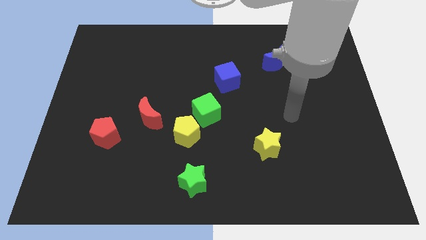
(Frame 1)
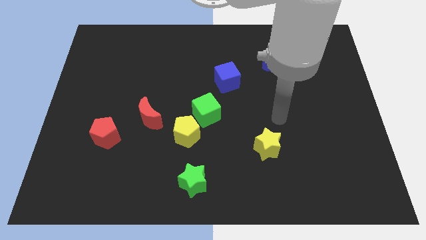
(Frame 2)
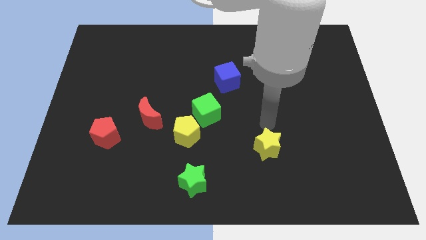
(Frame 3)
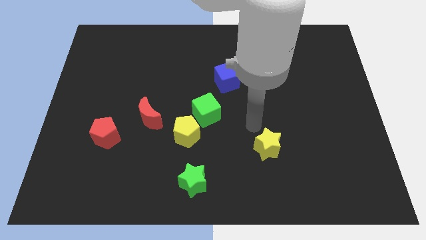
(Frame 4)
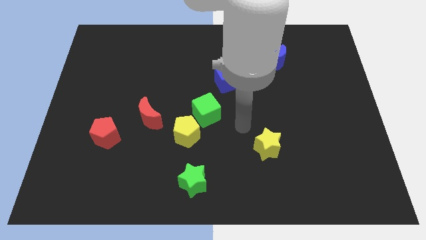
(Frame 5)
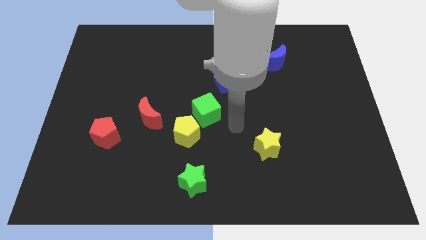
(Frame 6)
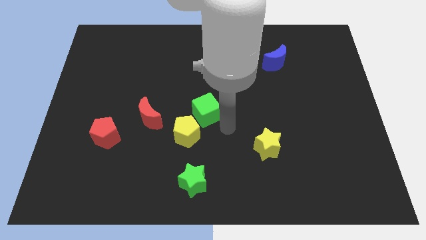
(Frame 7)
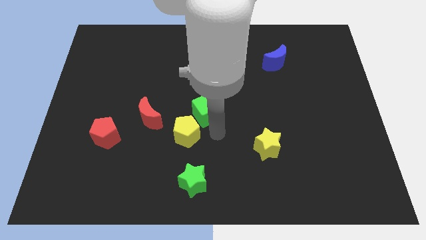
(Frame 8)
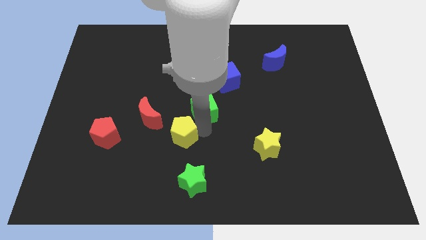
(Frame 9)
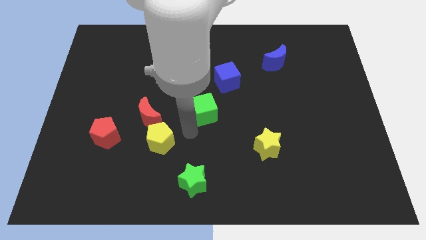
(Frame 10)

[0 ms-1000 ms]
pull the green cube apart from the yellow pentagon

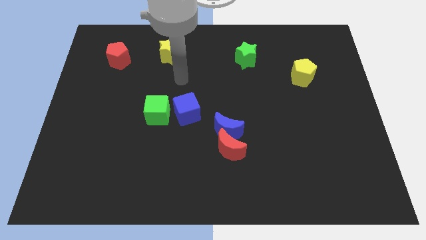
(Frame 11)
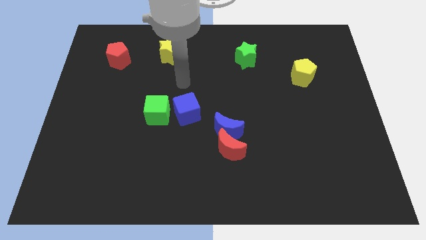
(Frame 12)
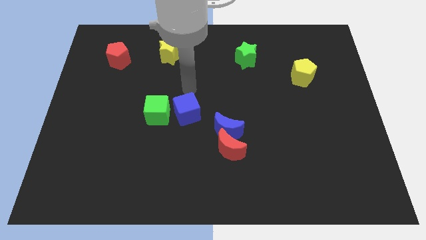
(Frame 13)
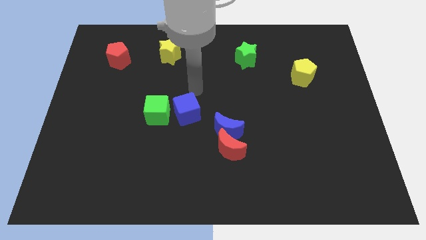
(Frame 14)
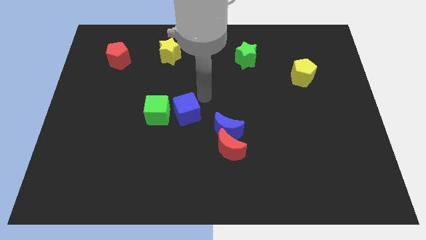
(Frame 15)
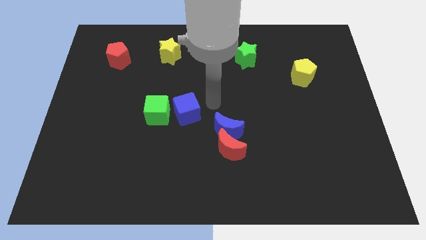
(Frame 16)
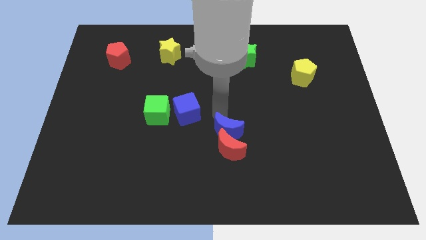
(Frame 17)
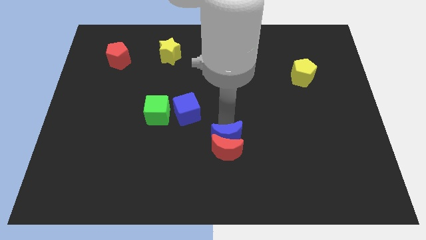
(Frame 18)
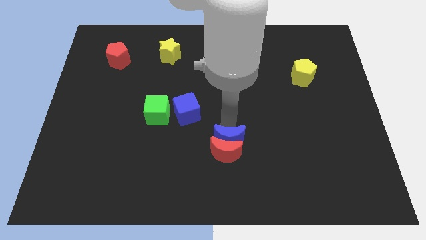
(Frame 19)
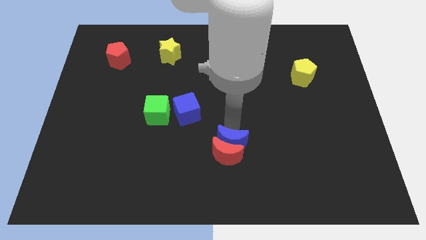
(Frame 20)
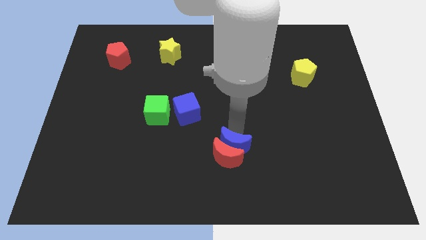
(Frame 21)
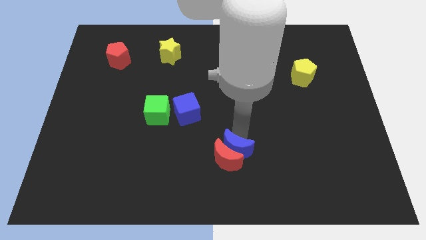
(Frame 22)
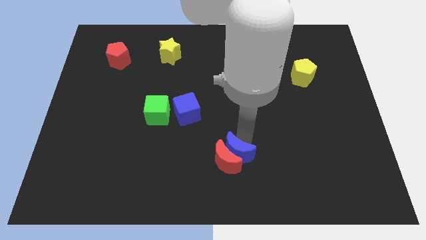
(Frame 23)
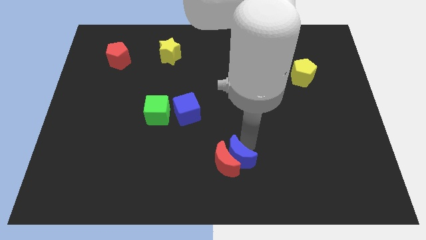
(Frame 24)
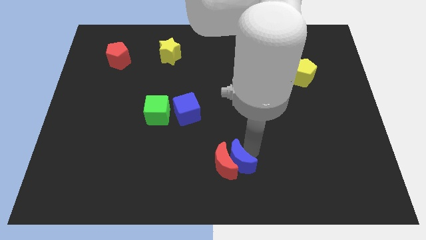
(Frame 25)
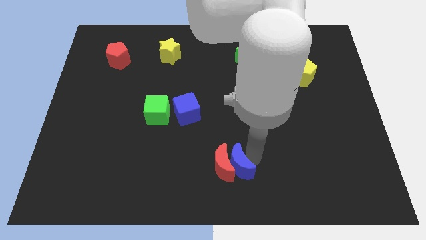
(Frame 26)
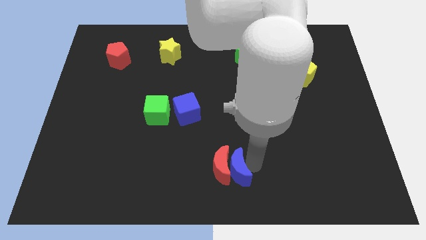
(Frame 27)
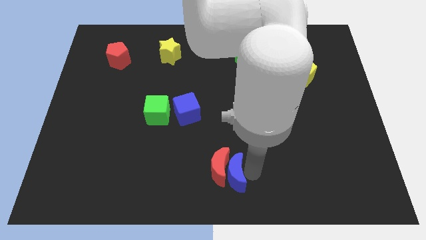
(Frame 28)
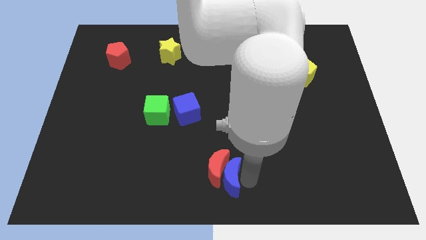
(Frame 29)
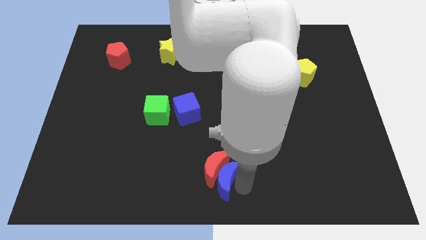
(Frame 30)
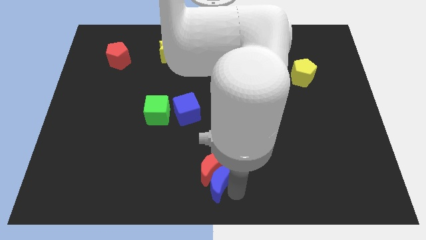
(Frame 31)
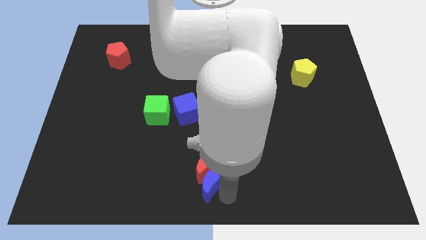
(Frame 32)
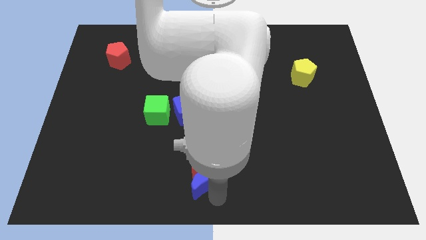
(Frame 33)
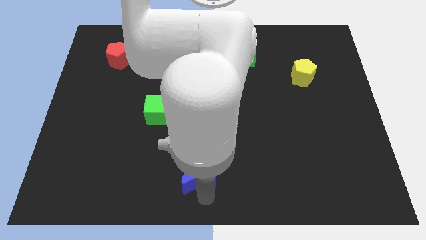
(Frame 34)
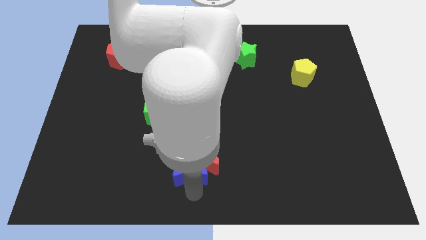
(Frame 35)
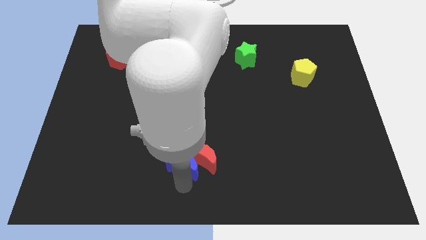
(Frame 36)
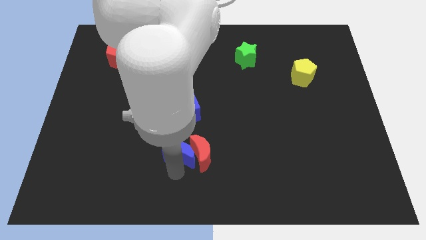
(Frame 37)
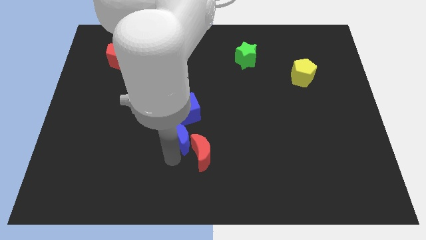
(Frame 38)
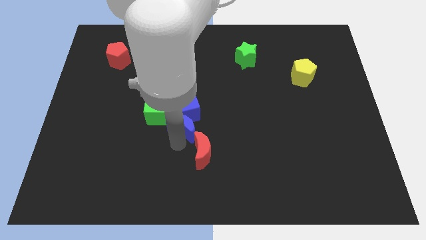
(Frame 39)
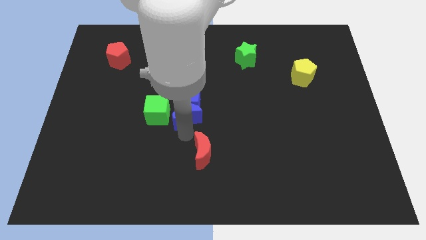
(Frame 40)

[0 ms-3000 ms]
pull the red moon apart from the blue moon

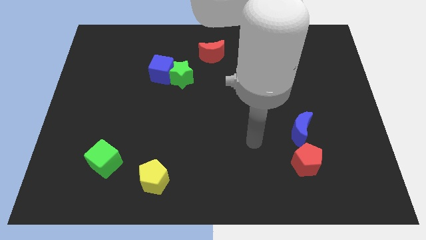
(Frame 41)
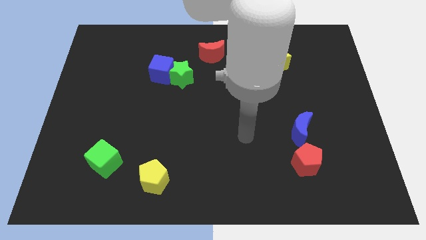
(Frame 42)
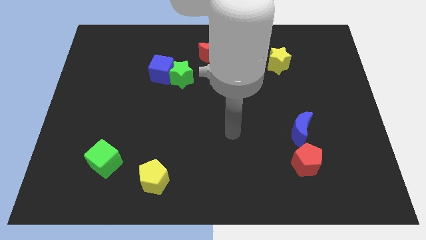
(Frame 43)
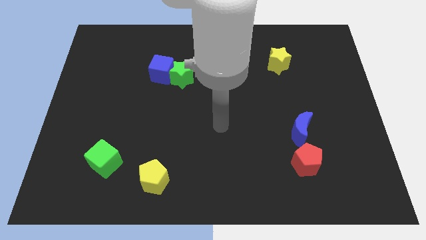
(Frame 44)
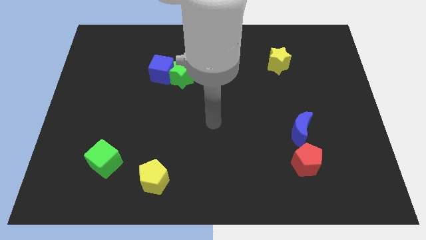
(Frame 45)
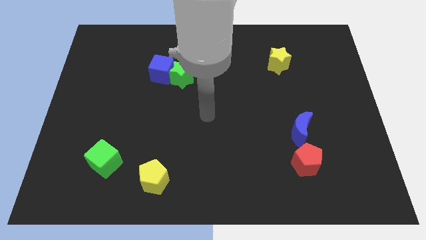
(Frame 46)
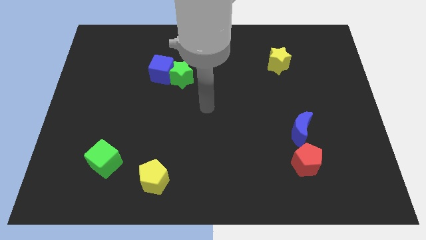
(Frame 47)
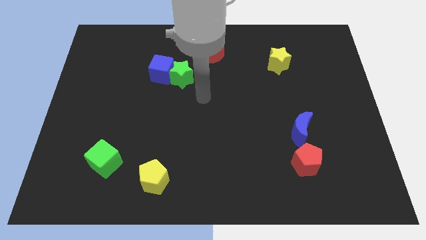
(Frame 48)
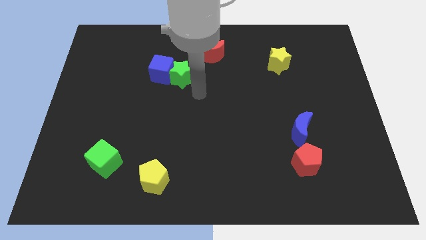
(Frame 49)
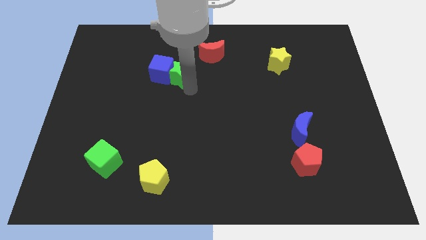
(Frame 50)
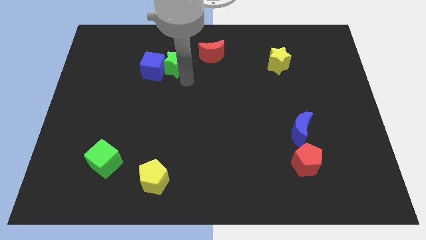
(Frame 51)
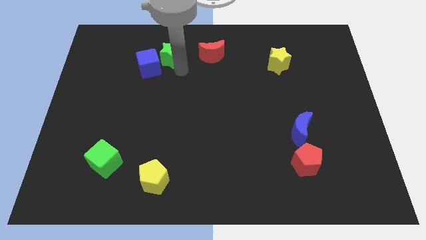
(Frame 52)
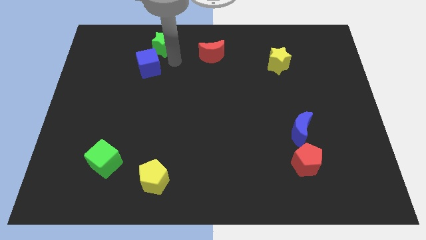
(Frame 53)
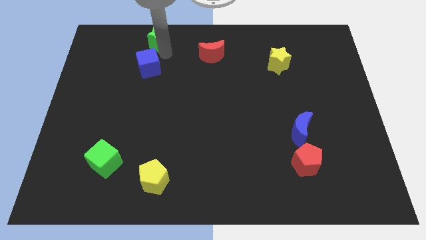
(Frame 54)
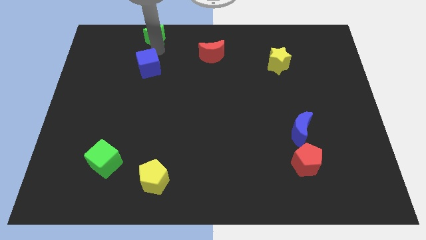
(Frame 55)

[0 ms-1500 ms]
separate the blue cube from the green star

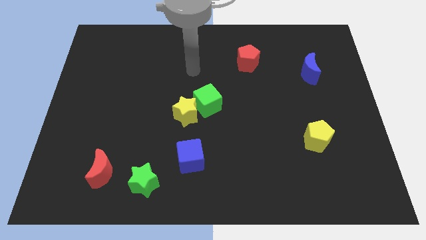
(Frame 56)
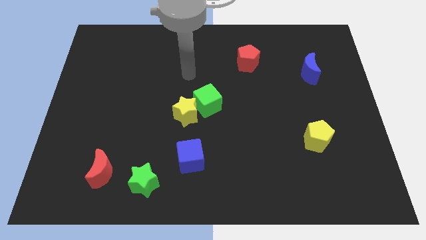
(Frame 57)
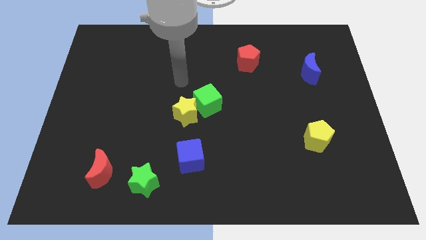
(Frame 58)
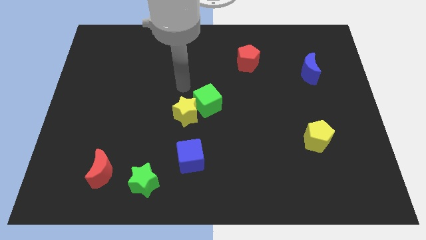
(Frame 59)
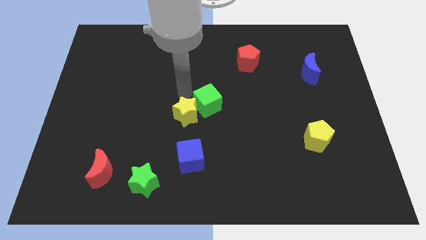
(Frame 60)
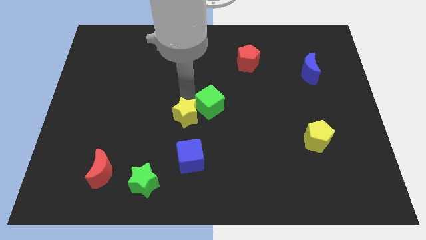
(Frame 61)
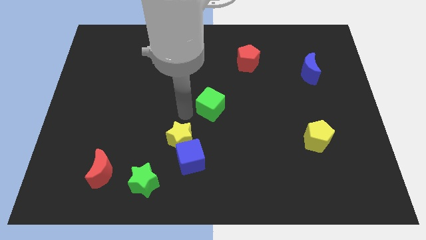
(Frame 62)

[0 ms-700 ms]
separate the green cube from the yellow star

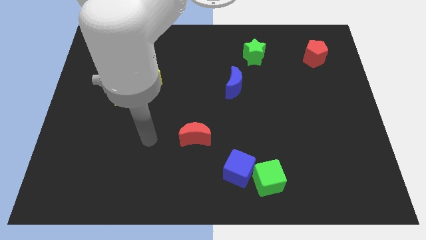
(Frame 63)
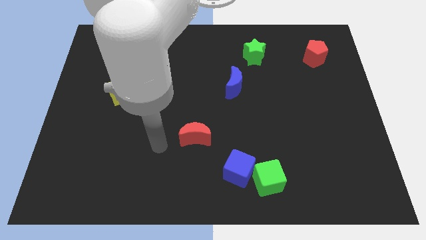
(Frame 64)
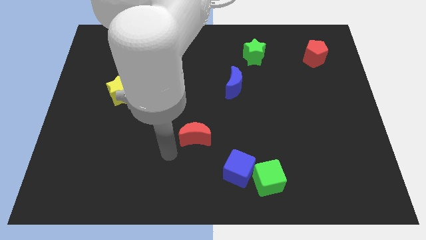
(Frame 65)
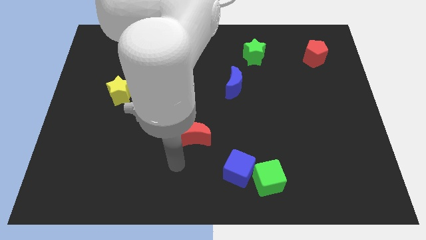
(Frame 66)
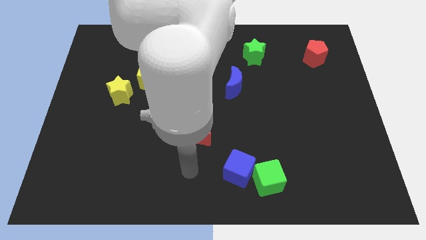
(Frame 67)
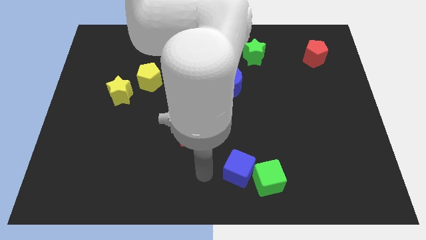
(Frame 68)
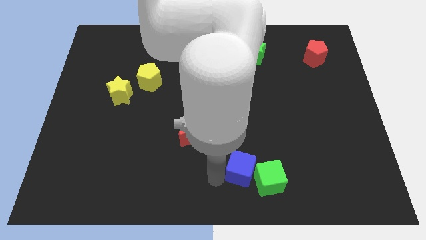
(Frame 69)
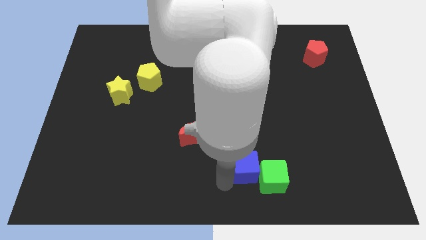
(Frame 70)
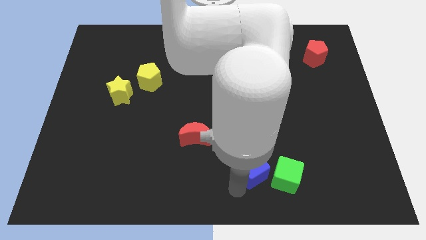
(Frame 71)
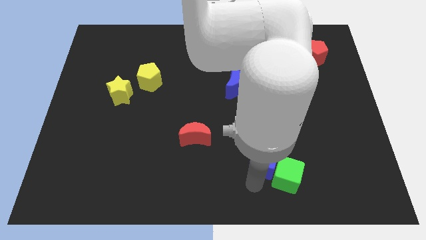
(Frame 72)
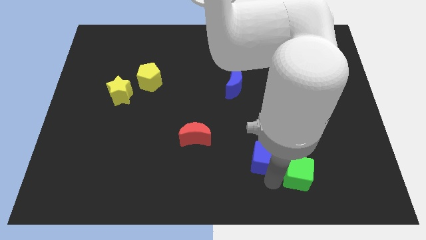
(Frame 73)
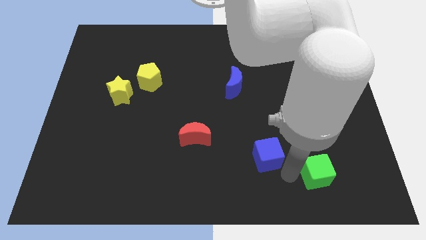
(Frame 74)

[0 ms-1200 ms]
separate the blue cube from the green cube

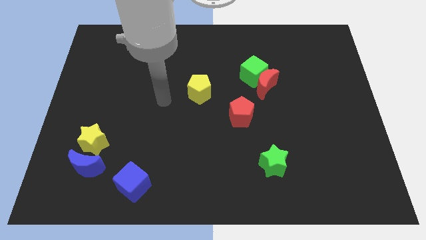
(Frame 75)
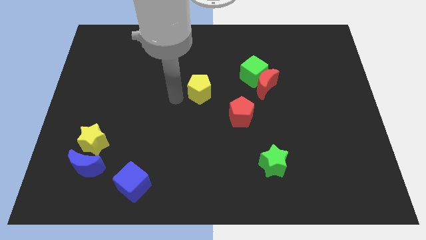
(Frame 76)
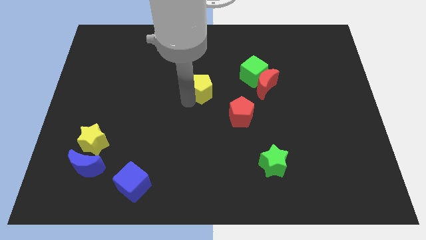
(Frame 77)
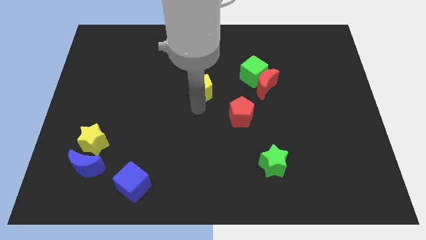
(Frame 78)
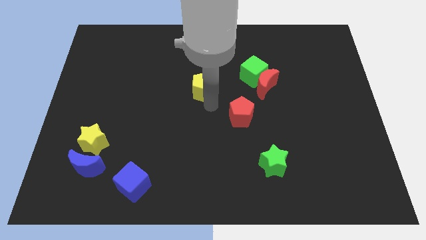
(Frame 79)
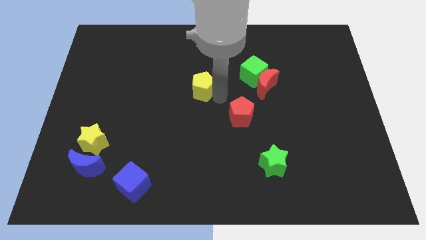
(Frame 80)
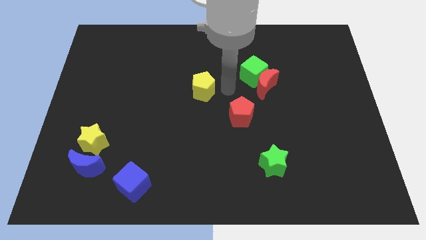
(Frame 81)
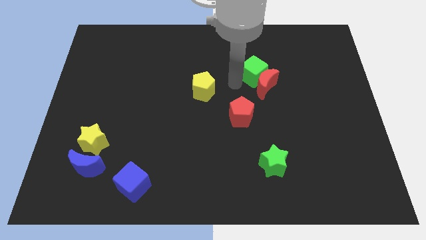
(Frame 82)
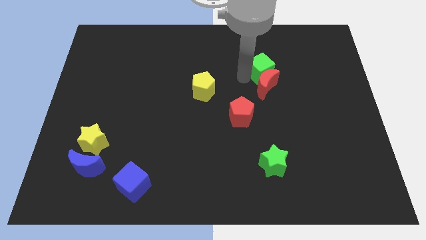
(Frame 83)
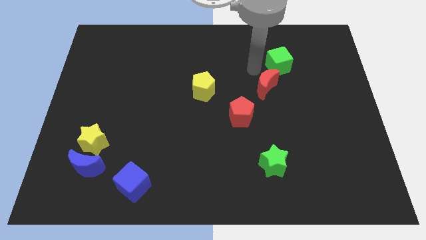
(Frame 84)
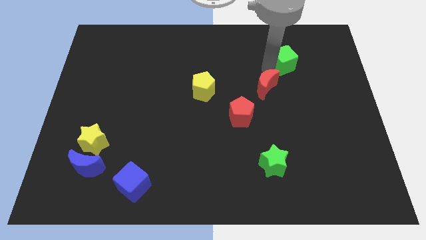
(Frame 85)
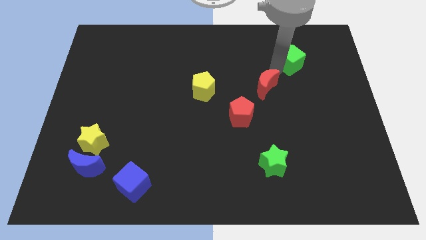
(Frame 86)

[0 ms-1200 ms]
pull the red moon apart from the green cube

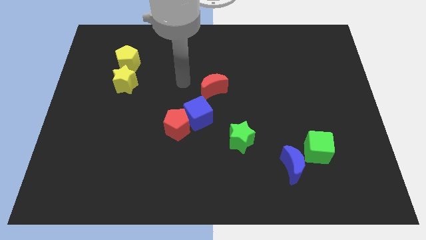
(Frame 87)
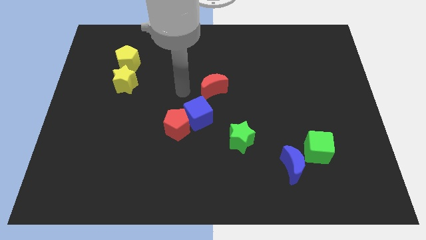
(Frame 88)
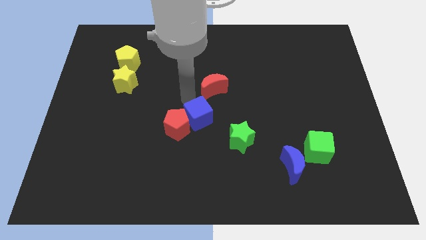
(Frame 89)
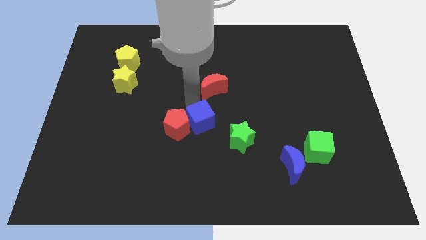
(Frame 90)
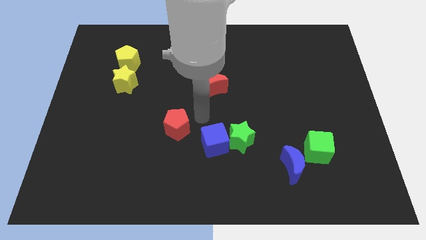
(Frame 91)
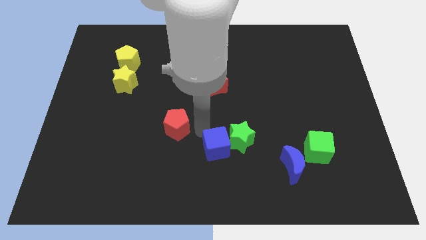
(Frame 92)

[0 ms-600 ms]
pull the red pentagon apart from the blue cube
